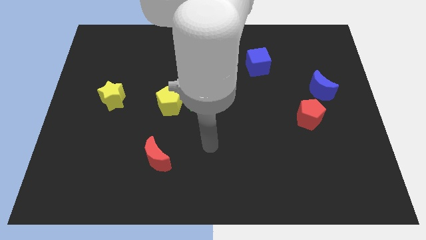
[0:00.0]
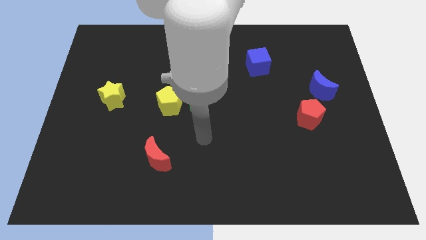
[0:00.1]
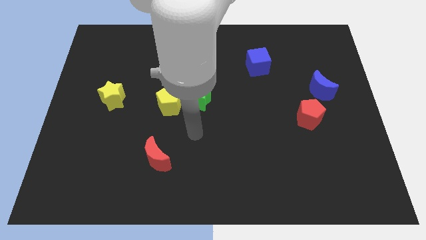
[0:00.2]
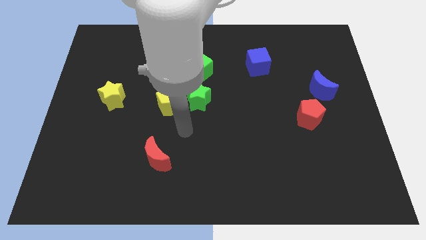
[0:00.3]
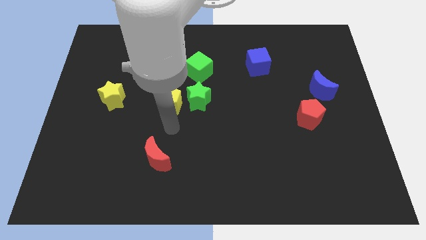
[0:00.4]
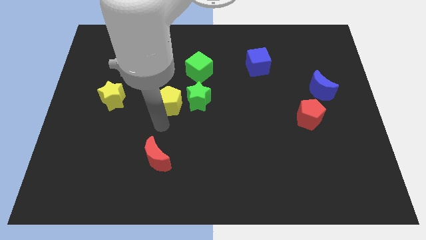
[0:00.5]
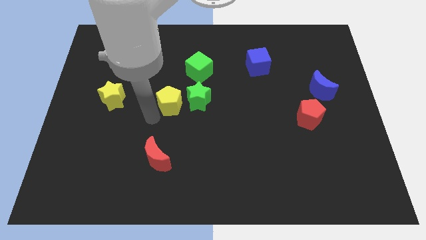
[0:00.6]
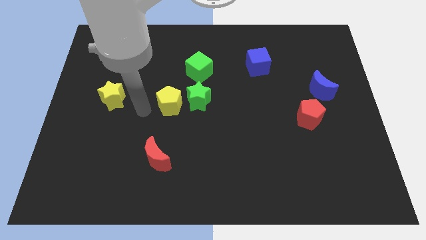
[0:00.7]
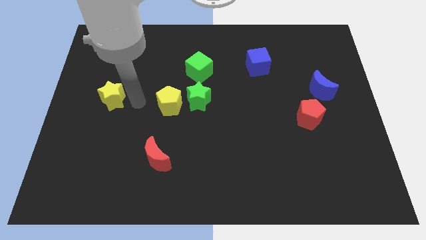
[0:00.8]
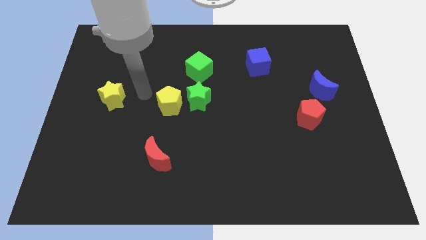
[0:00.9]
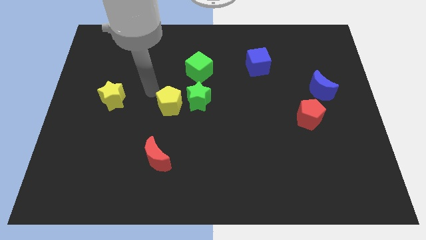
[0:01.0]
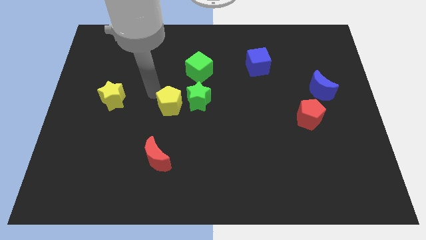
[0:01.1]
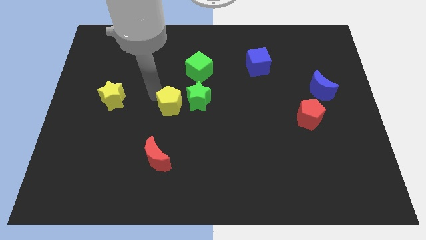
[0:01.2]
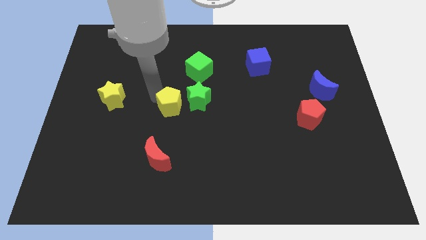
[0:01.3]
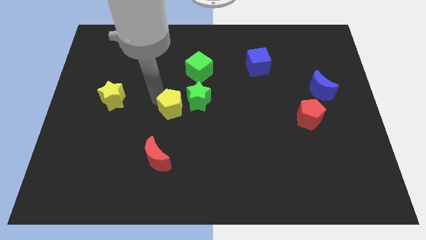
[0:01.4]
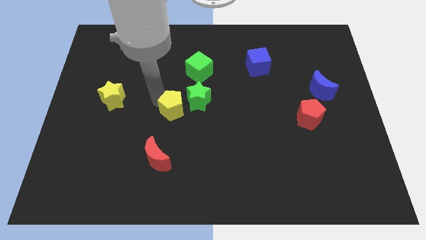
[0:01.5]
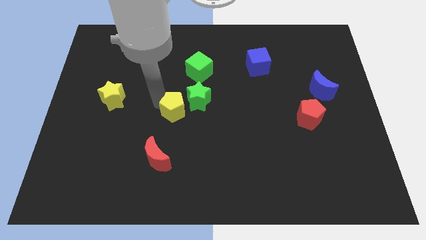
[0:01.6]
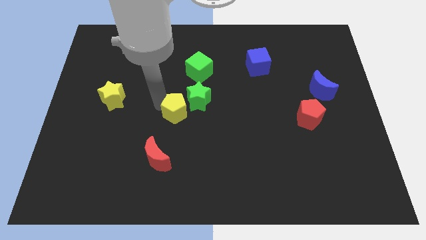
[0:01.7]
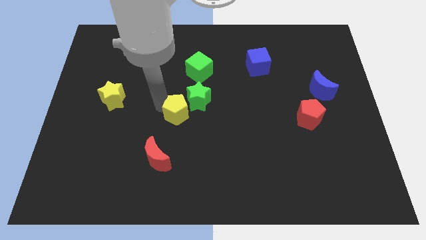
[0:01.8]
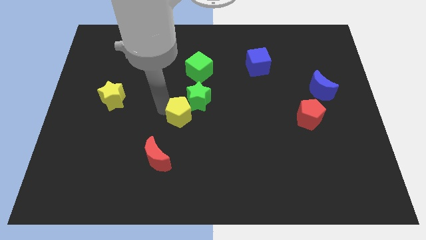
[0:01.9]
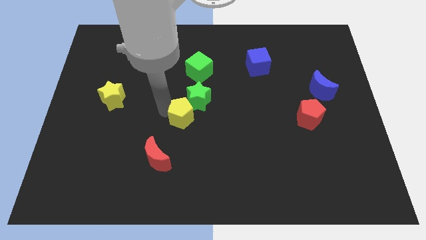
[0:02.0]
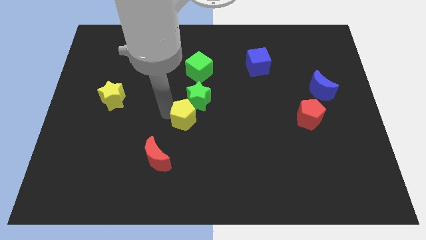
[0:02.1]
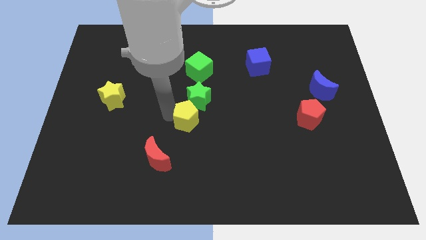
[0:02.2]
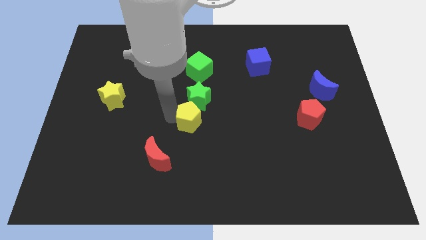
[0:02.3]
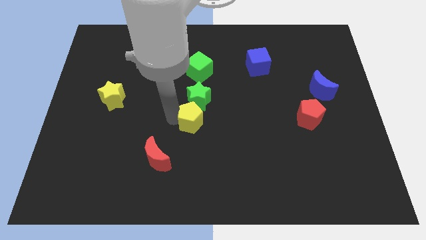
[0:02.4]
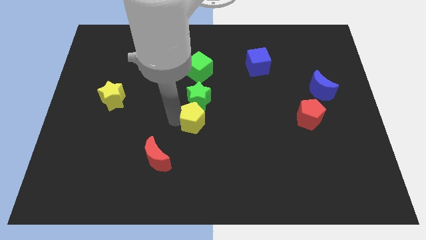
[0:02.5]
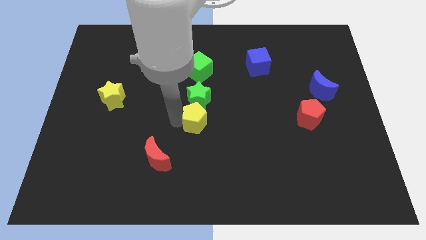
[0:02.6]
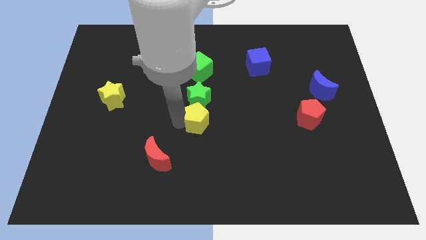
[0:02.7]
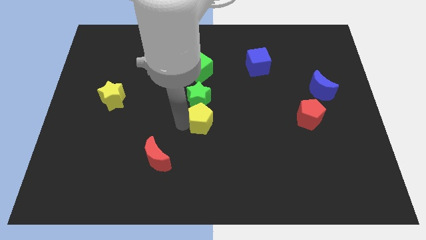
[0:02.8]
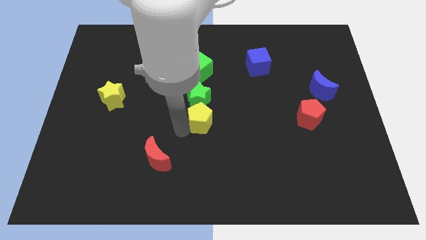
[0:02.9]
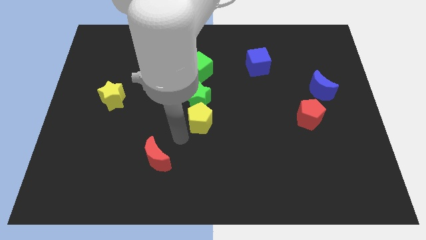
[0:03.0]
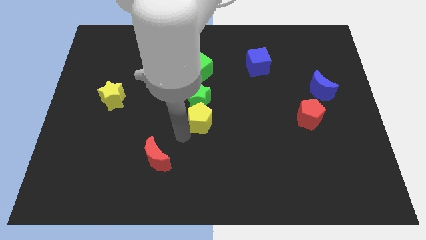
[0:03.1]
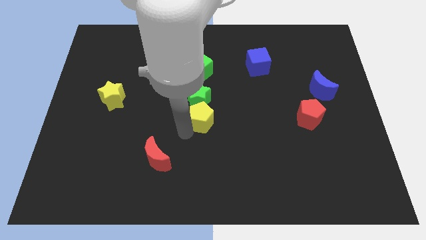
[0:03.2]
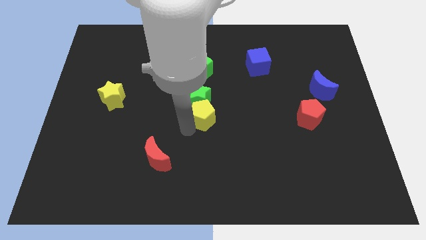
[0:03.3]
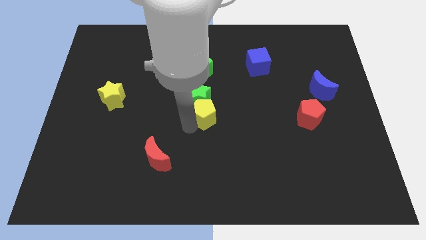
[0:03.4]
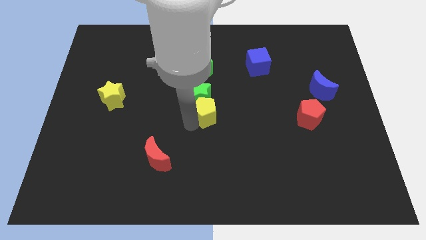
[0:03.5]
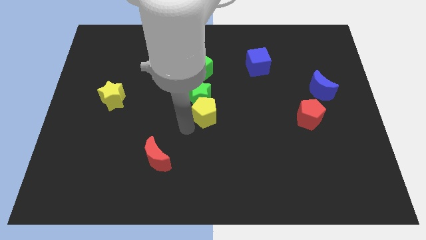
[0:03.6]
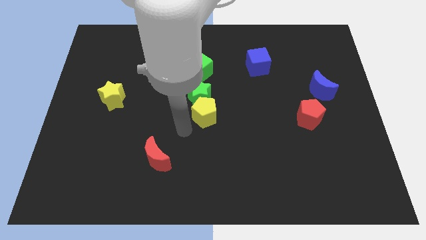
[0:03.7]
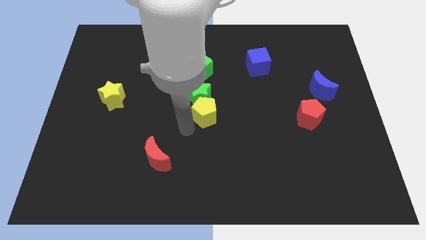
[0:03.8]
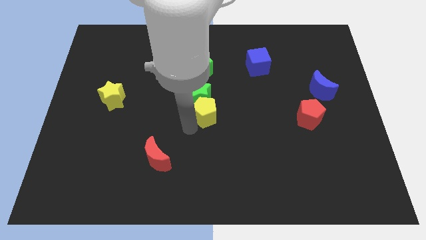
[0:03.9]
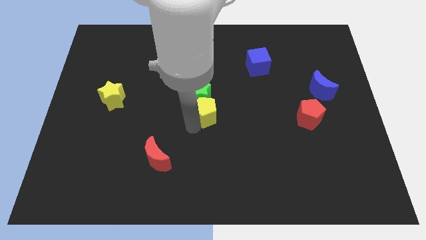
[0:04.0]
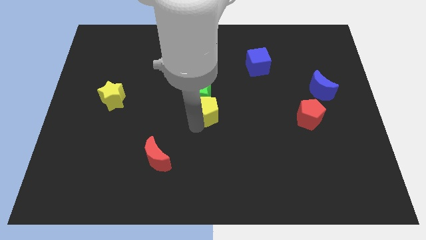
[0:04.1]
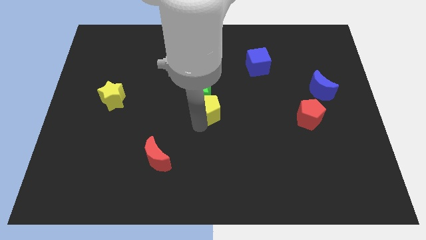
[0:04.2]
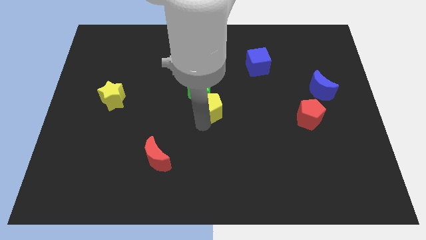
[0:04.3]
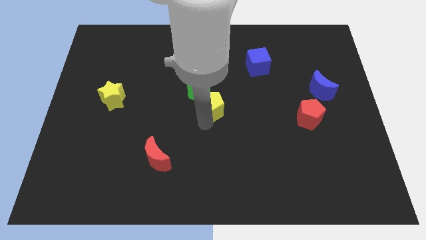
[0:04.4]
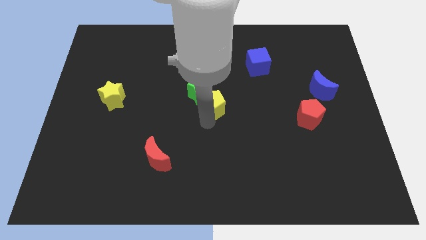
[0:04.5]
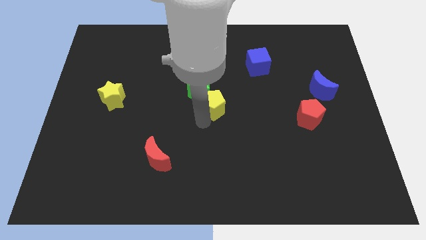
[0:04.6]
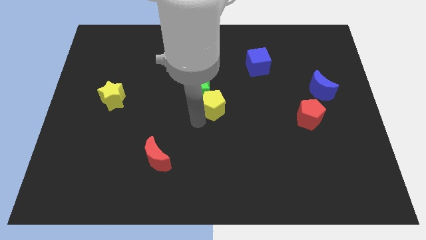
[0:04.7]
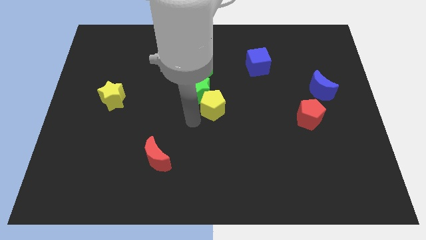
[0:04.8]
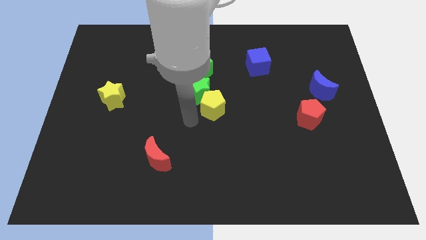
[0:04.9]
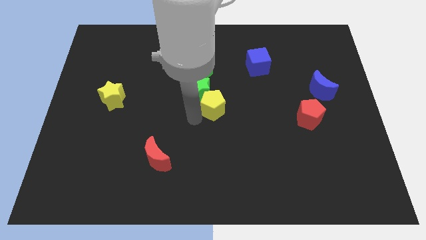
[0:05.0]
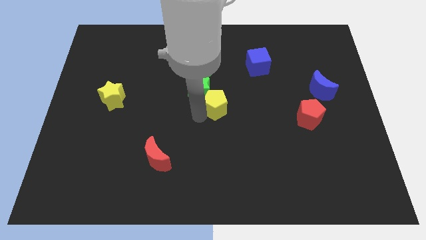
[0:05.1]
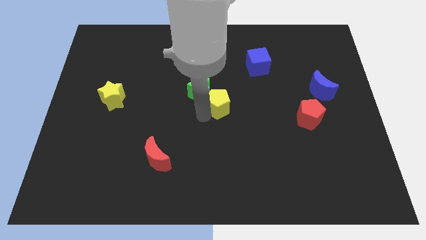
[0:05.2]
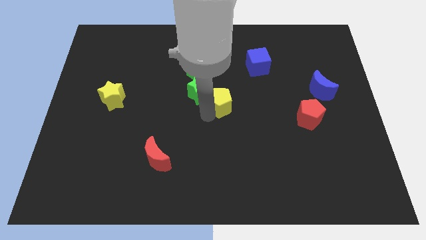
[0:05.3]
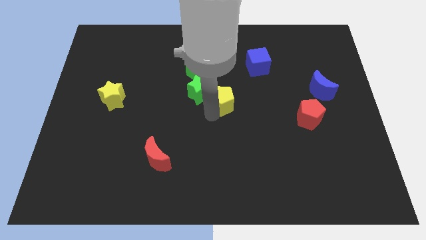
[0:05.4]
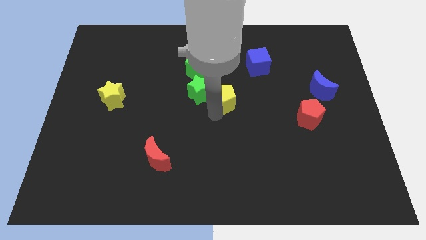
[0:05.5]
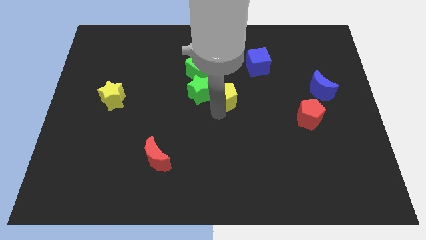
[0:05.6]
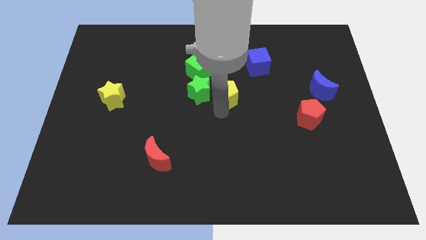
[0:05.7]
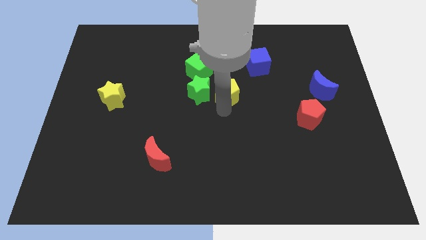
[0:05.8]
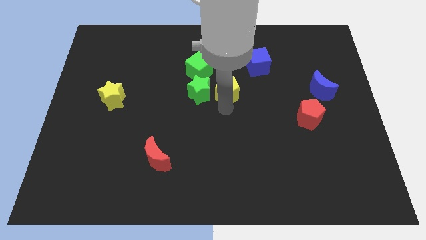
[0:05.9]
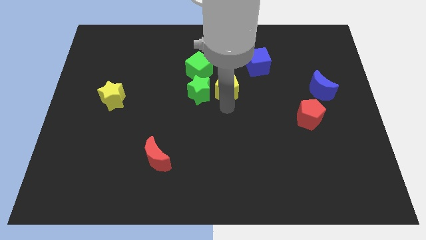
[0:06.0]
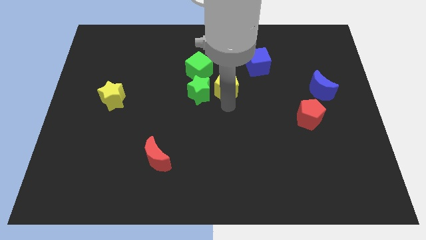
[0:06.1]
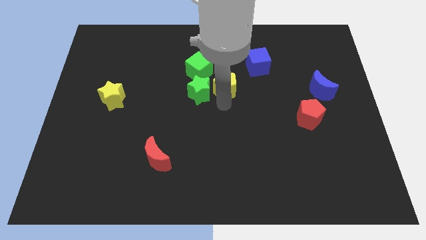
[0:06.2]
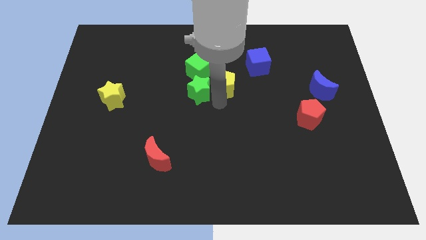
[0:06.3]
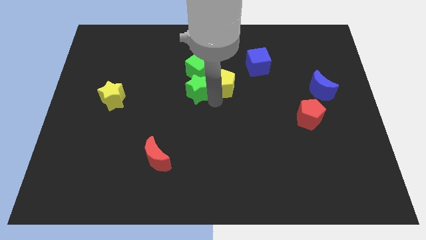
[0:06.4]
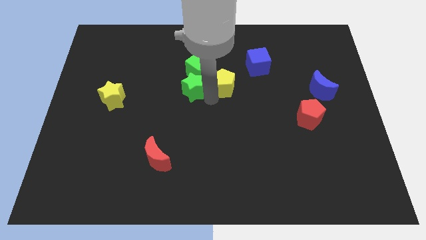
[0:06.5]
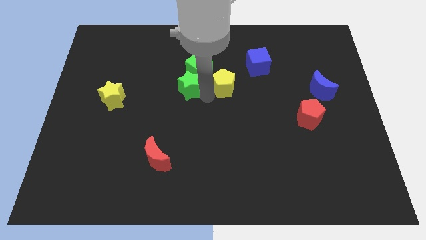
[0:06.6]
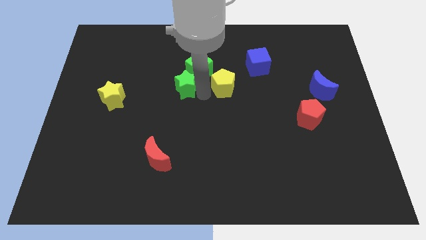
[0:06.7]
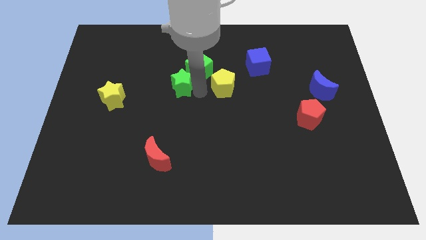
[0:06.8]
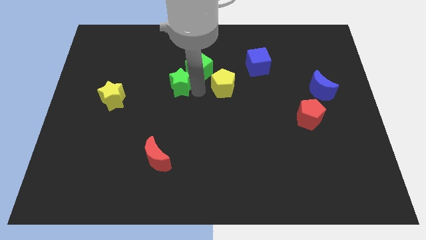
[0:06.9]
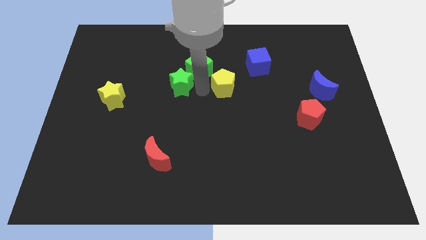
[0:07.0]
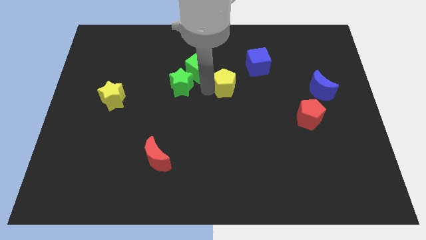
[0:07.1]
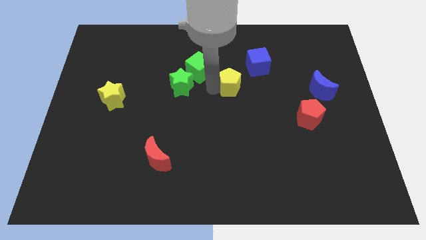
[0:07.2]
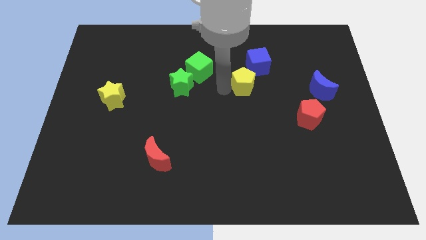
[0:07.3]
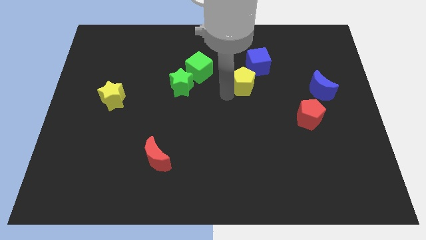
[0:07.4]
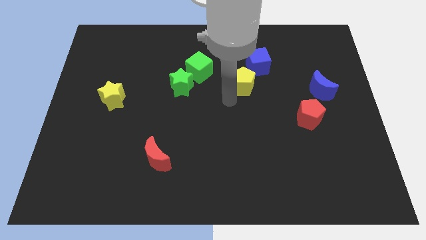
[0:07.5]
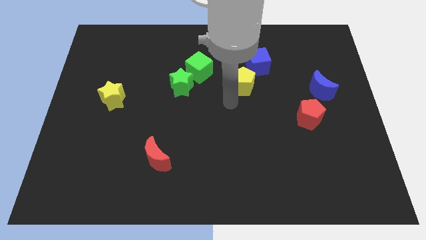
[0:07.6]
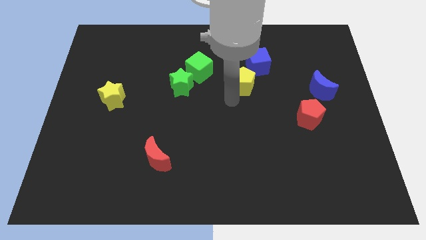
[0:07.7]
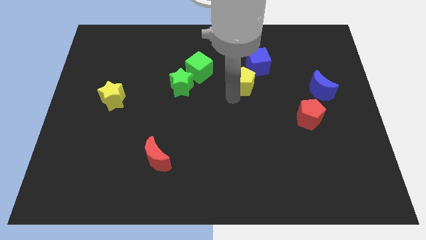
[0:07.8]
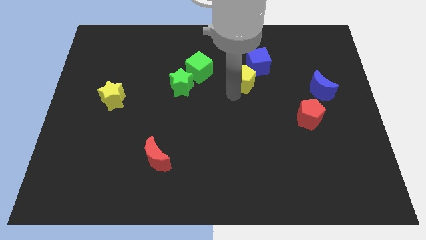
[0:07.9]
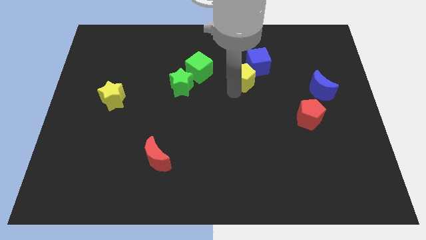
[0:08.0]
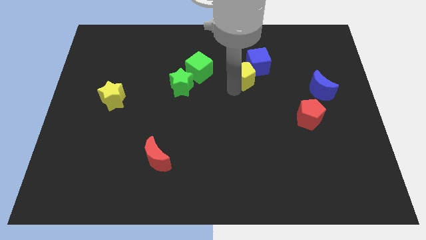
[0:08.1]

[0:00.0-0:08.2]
move the yellow pentagon close to the blue cube
